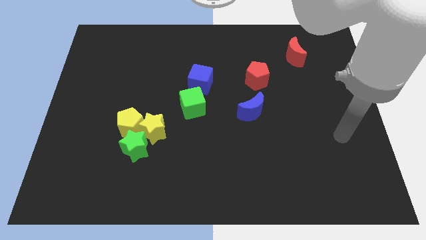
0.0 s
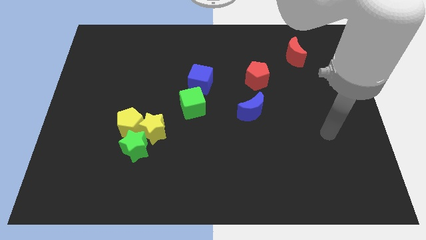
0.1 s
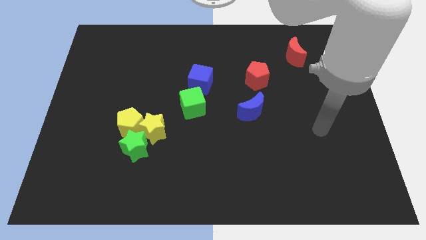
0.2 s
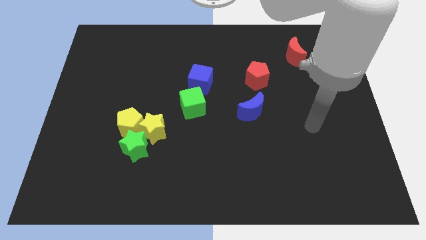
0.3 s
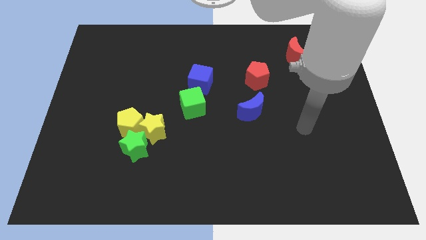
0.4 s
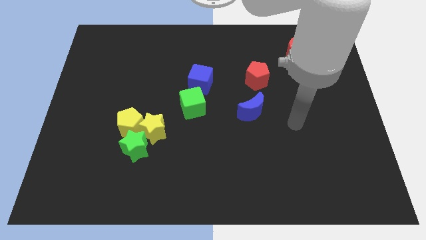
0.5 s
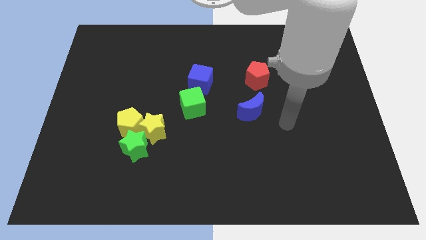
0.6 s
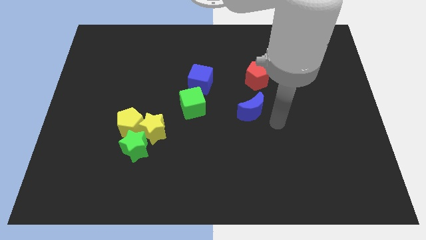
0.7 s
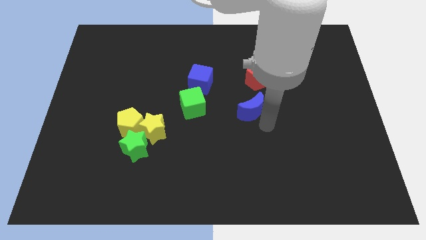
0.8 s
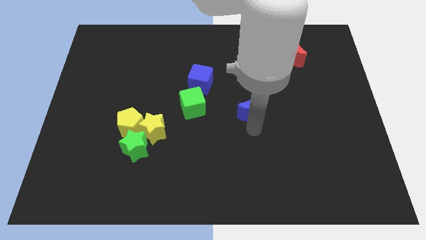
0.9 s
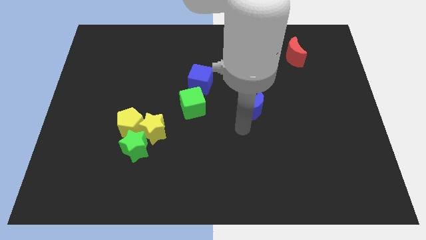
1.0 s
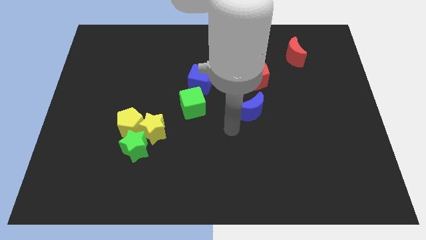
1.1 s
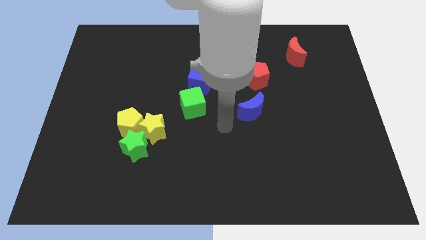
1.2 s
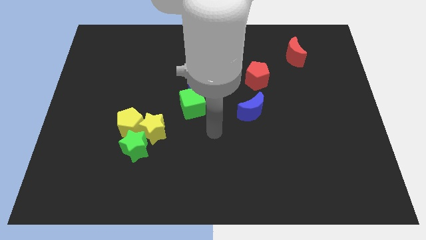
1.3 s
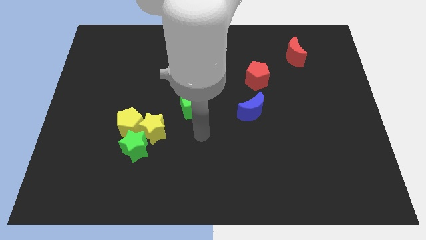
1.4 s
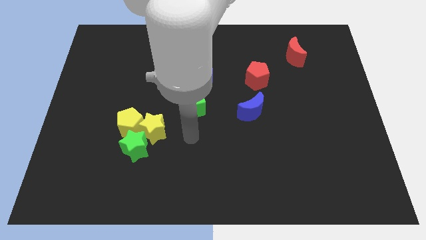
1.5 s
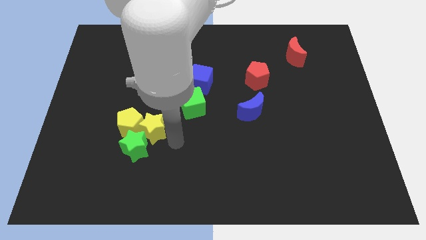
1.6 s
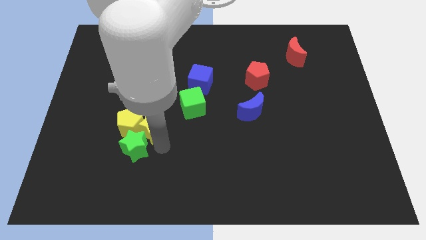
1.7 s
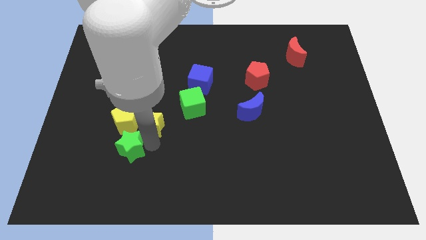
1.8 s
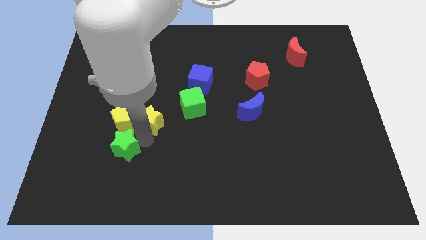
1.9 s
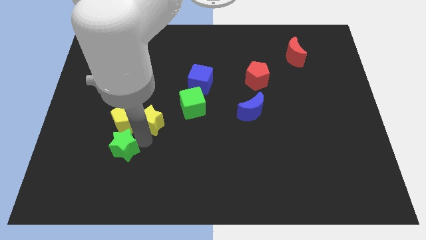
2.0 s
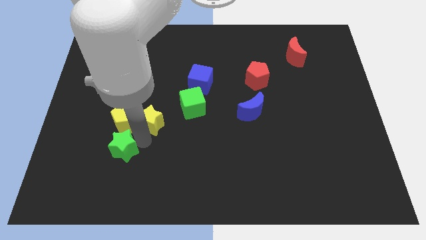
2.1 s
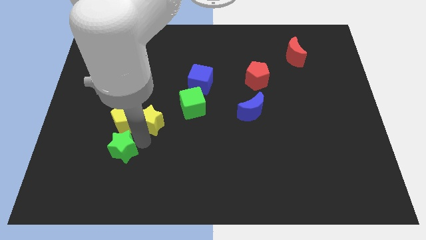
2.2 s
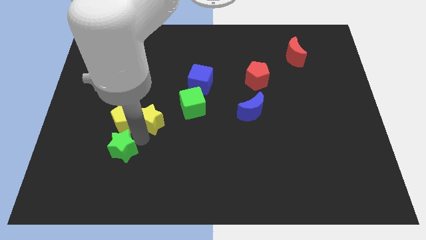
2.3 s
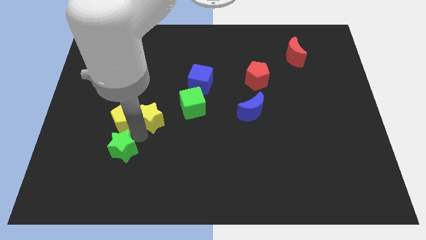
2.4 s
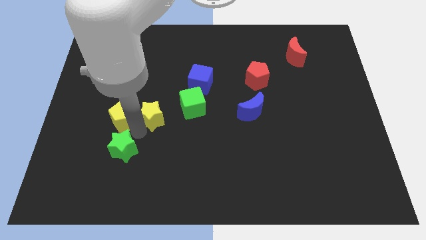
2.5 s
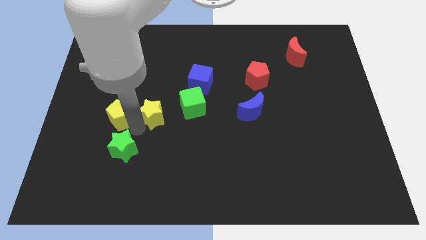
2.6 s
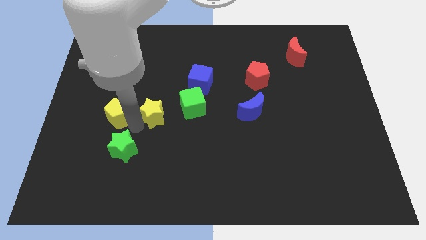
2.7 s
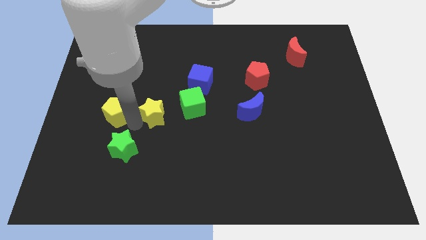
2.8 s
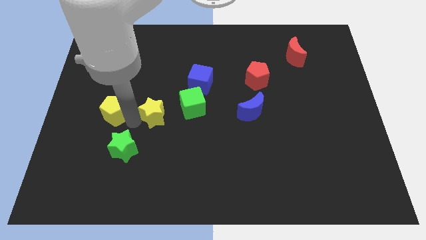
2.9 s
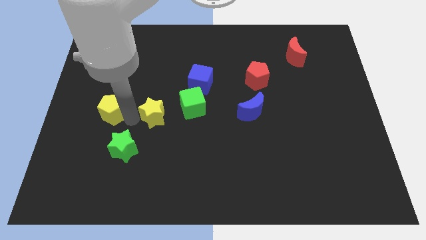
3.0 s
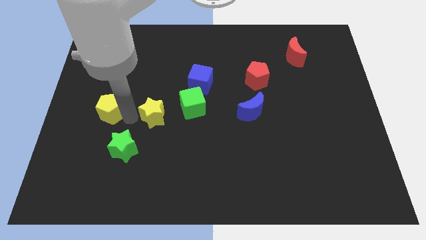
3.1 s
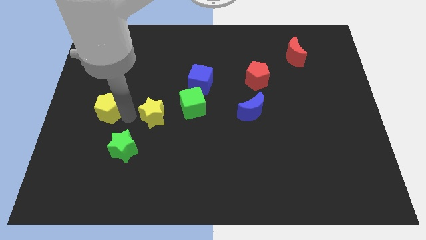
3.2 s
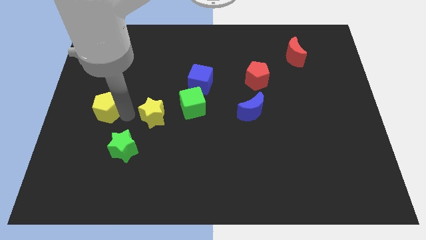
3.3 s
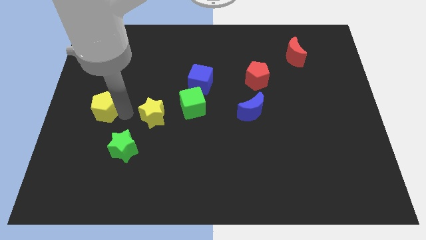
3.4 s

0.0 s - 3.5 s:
separate the yellow pentagon from the yellow star and green star

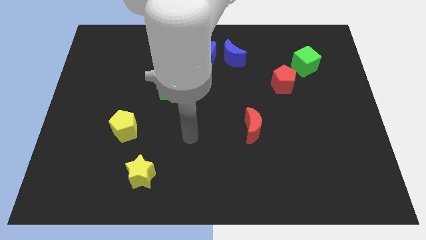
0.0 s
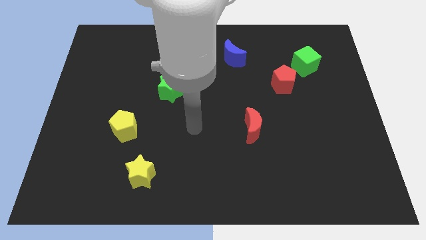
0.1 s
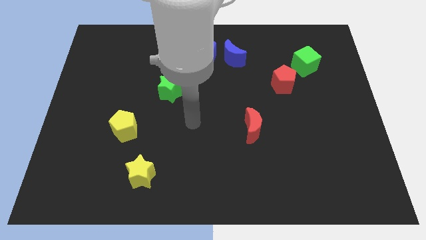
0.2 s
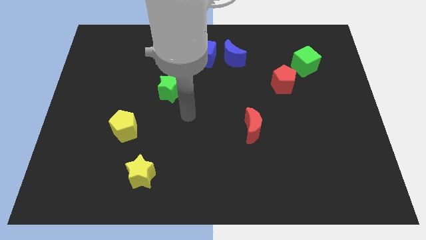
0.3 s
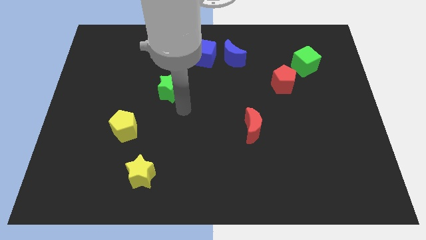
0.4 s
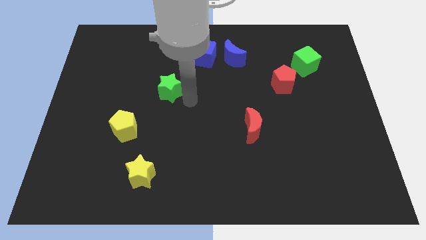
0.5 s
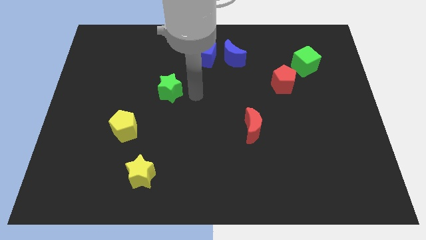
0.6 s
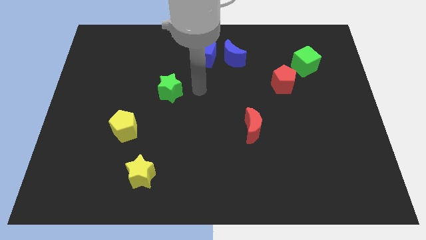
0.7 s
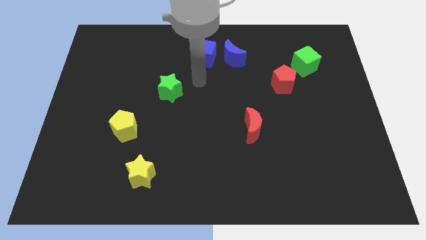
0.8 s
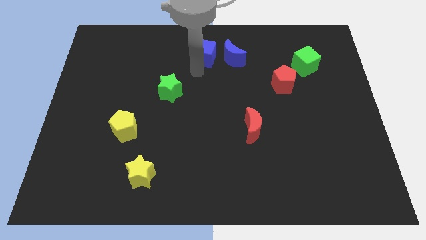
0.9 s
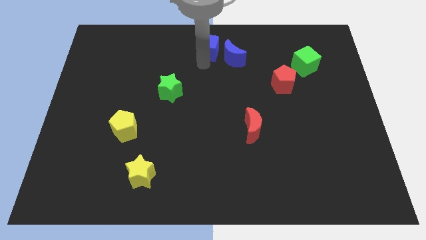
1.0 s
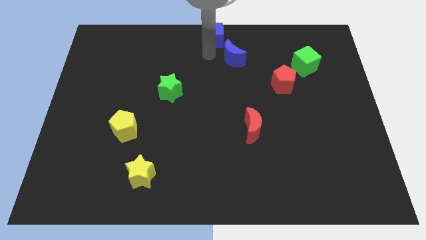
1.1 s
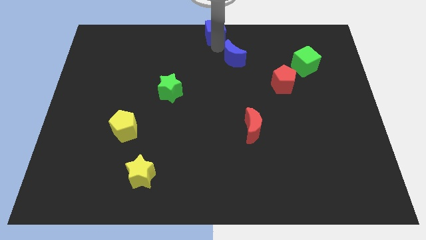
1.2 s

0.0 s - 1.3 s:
separate the blue moon from the blue cube

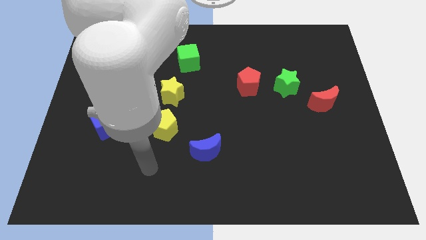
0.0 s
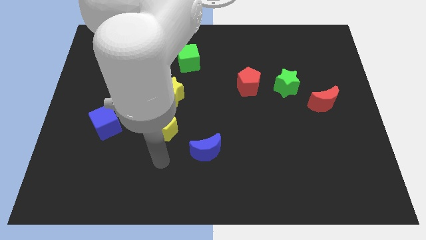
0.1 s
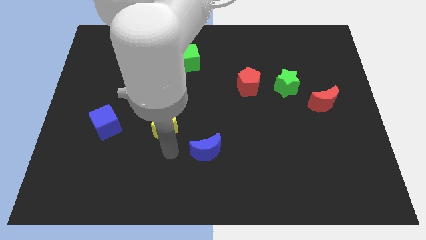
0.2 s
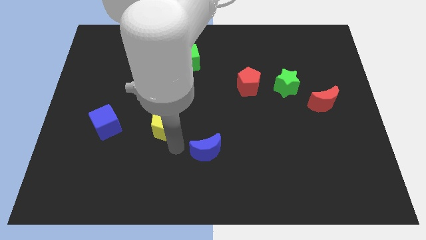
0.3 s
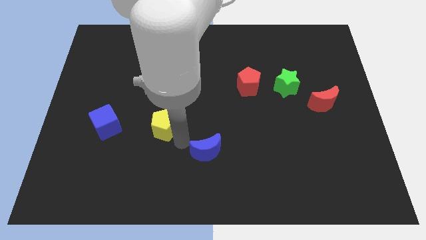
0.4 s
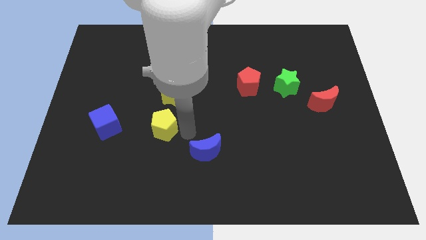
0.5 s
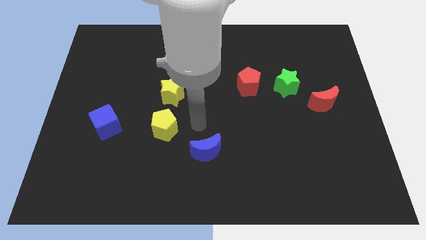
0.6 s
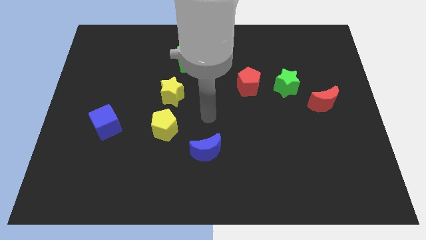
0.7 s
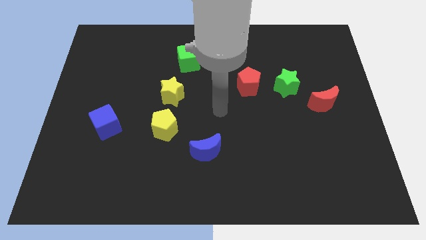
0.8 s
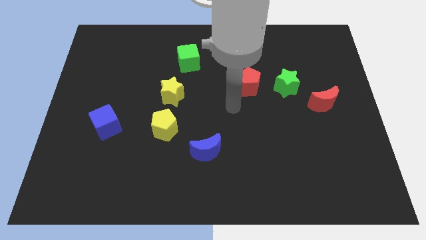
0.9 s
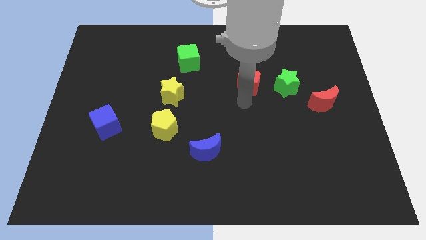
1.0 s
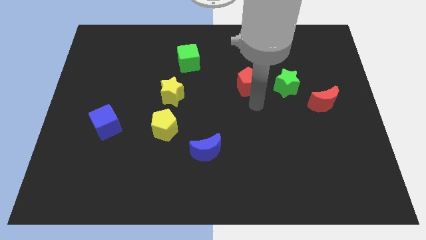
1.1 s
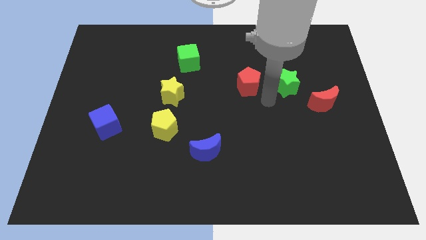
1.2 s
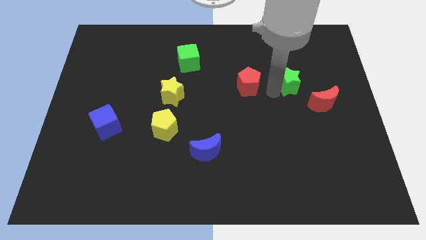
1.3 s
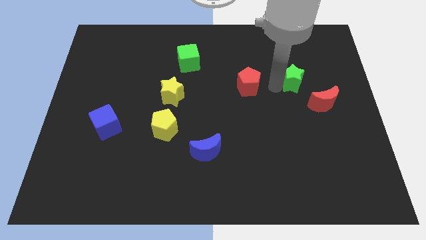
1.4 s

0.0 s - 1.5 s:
move the red pentagon away from the green star

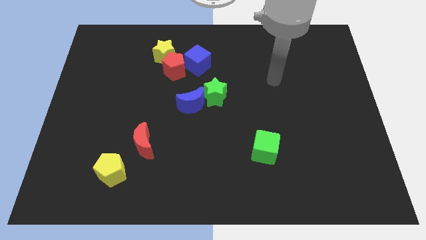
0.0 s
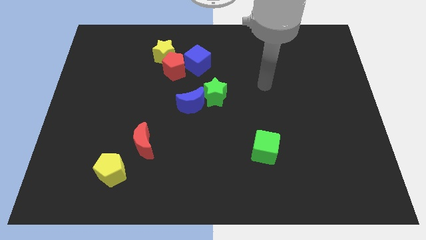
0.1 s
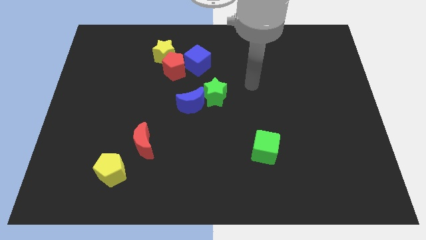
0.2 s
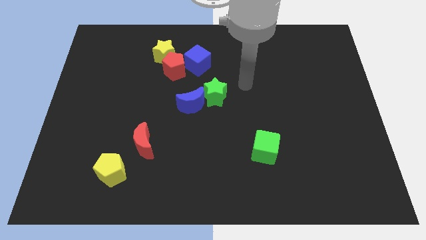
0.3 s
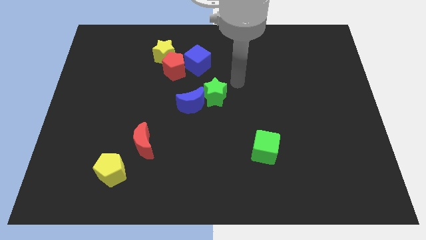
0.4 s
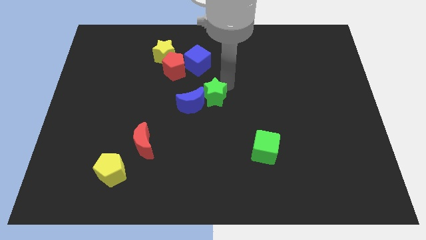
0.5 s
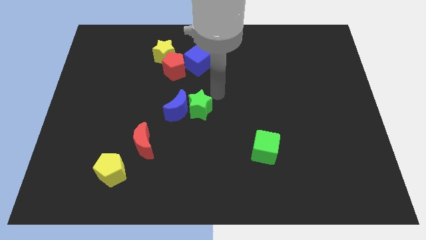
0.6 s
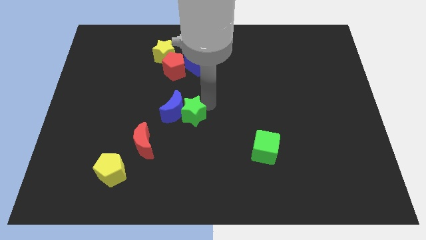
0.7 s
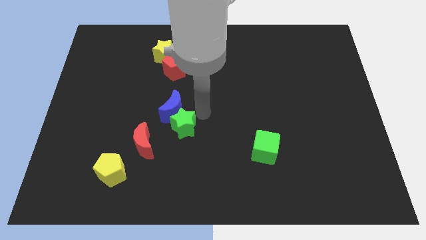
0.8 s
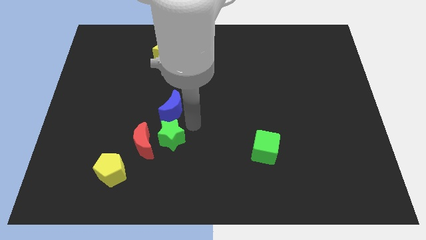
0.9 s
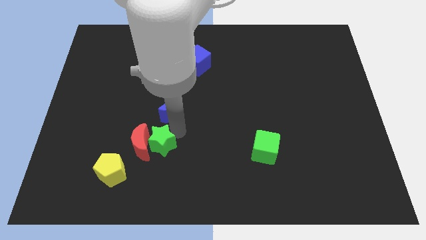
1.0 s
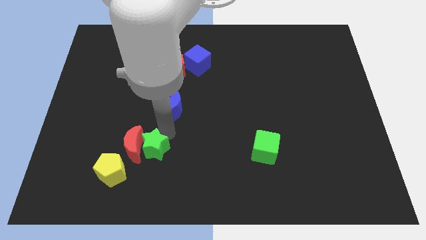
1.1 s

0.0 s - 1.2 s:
separate the blue moon from the green star

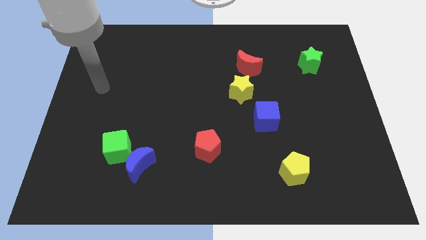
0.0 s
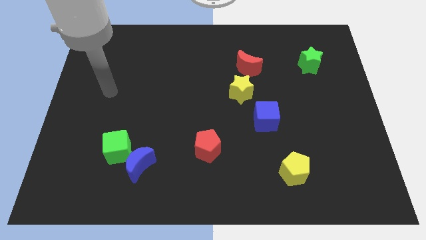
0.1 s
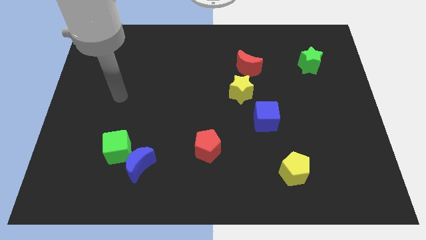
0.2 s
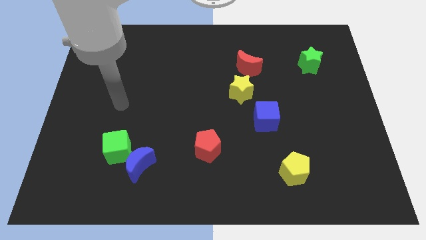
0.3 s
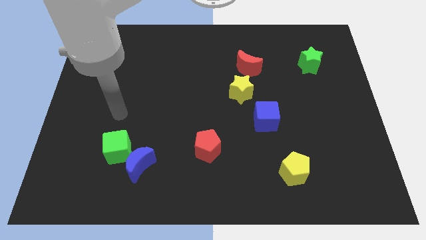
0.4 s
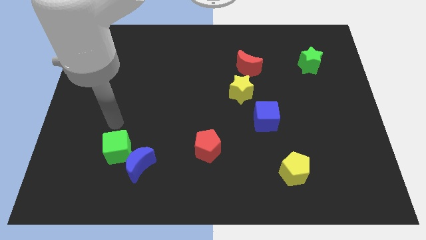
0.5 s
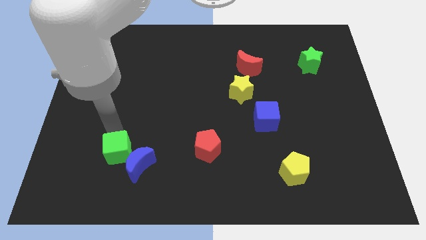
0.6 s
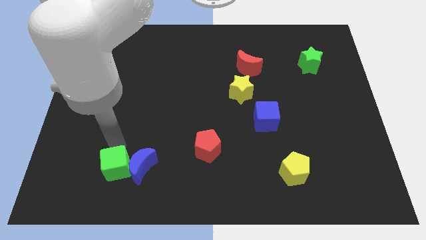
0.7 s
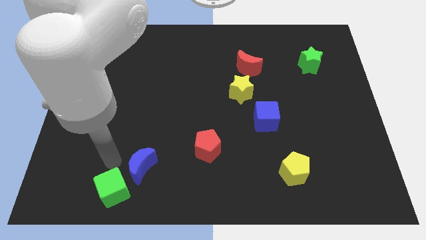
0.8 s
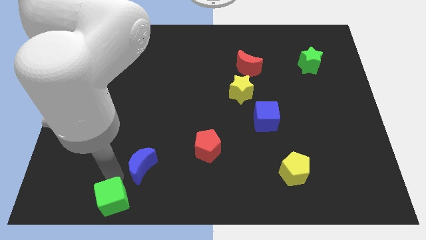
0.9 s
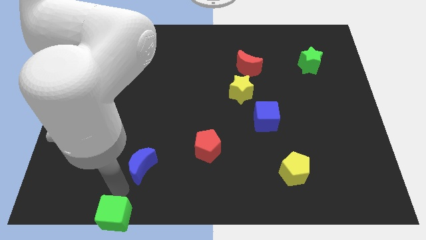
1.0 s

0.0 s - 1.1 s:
move the blue moon away from the green cube

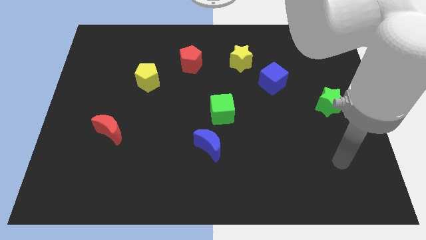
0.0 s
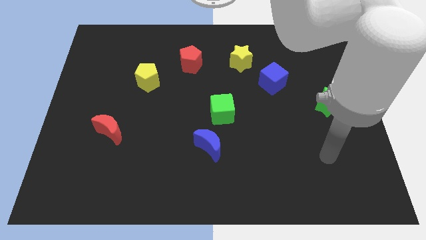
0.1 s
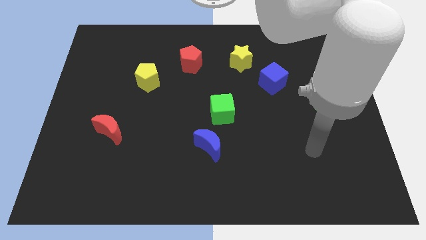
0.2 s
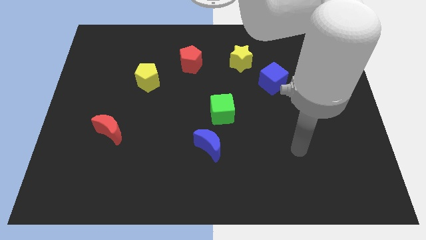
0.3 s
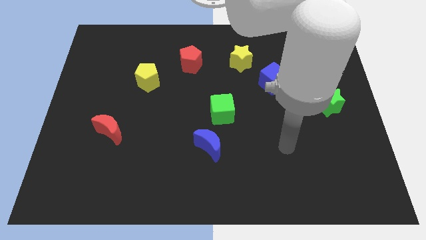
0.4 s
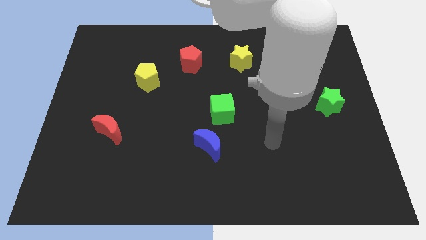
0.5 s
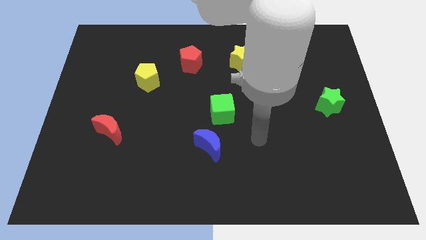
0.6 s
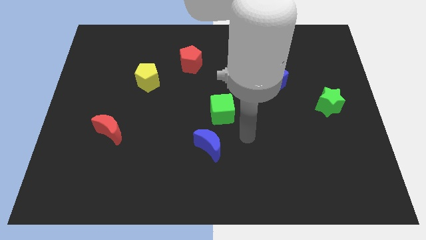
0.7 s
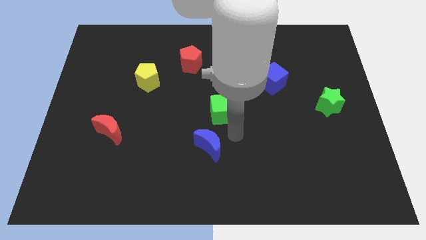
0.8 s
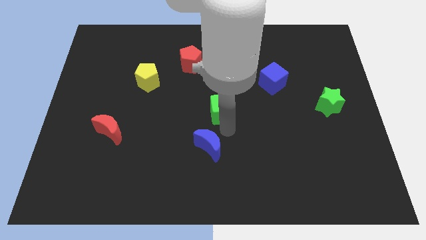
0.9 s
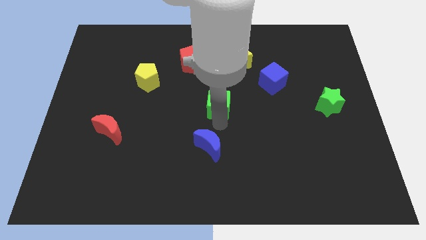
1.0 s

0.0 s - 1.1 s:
pull the blue moon apart from the green cube
